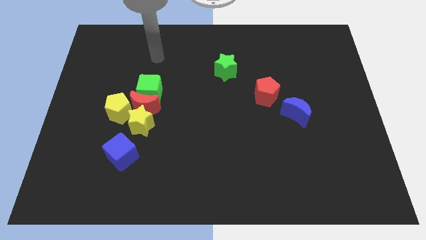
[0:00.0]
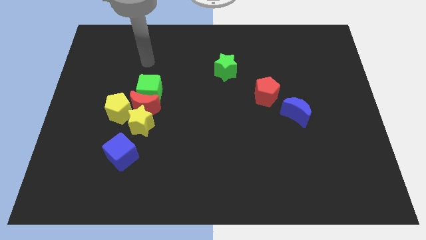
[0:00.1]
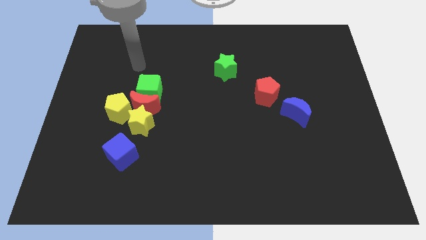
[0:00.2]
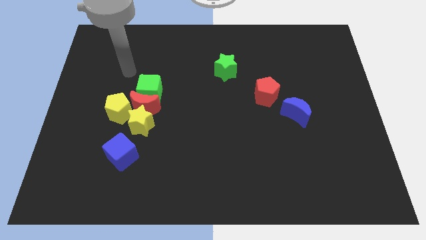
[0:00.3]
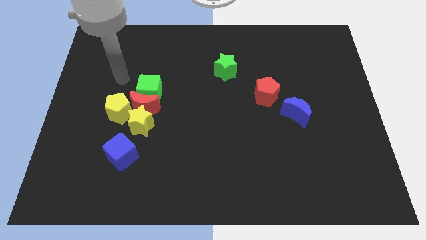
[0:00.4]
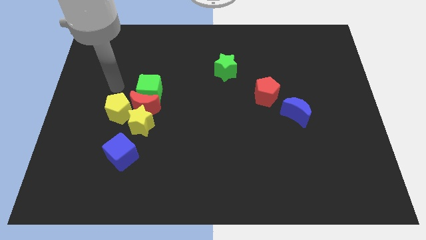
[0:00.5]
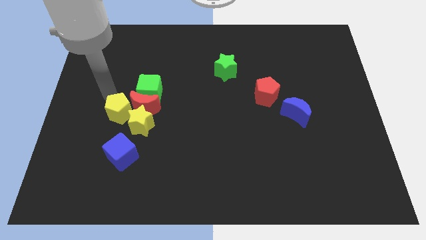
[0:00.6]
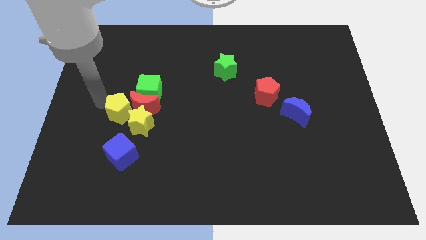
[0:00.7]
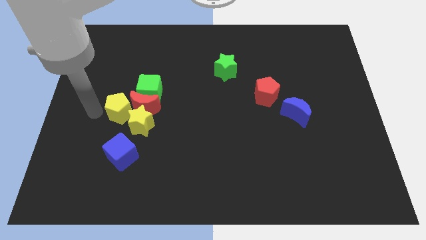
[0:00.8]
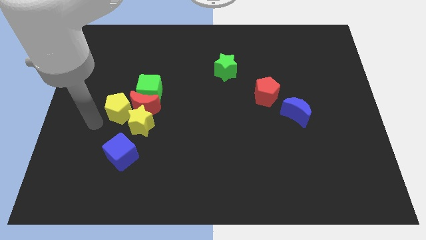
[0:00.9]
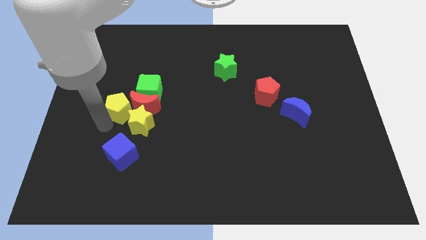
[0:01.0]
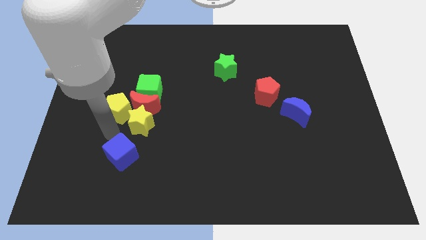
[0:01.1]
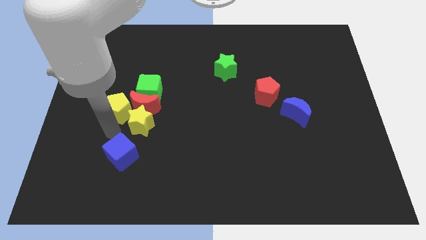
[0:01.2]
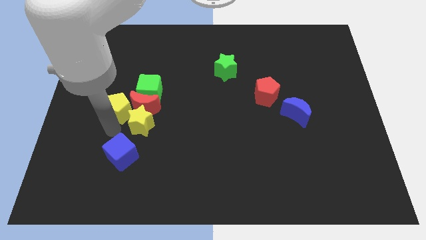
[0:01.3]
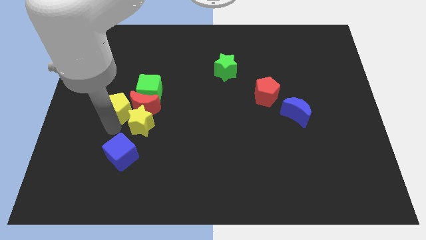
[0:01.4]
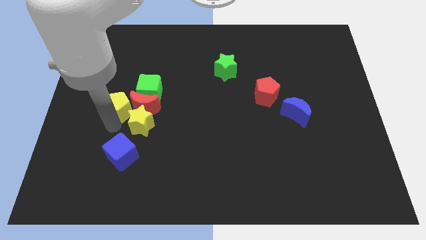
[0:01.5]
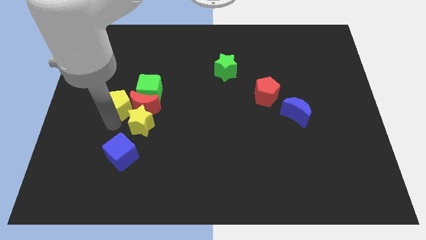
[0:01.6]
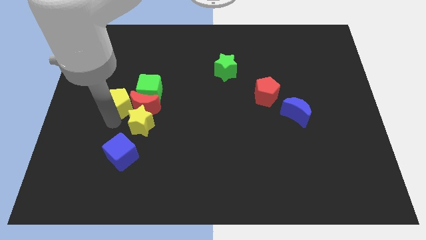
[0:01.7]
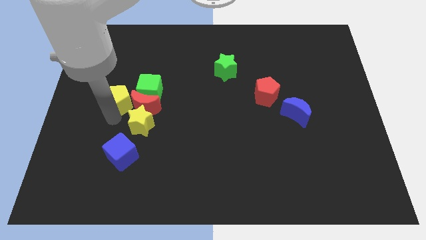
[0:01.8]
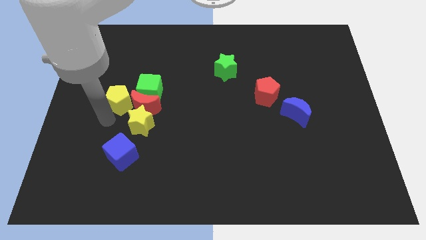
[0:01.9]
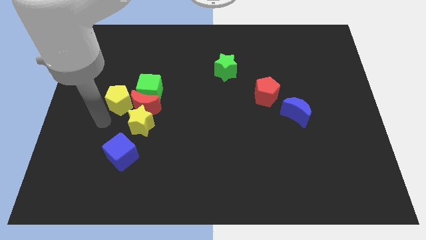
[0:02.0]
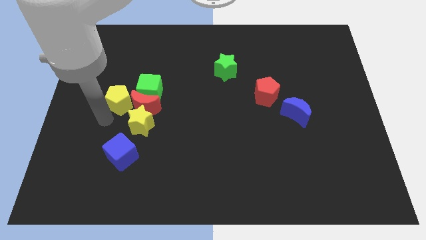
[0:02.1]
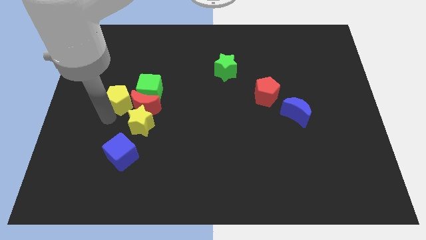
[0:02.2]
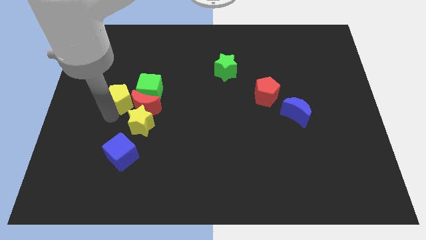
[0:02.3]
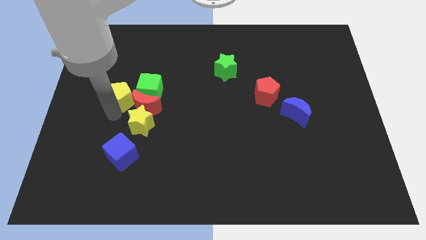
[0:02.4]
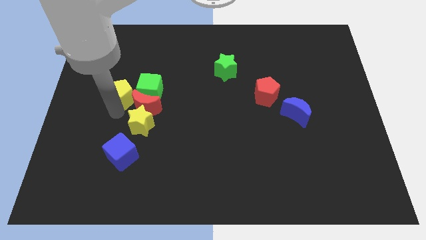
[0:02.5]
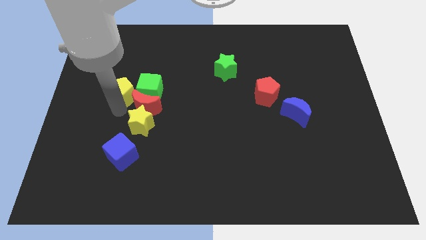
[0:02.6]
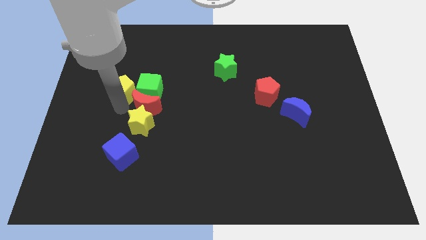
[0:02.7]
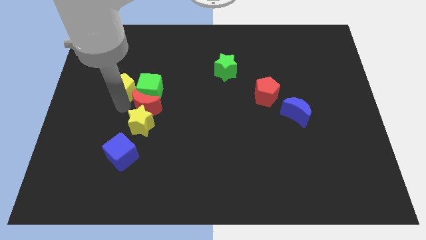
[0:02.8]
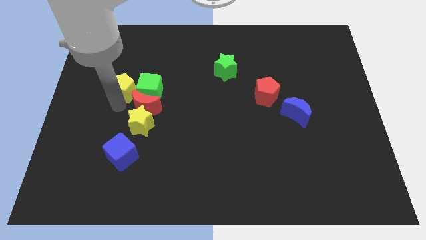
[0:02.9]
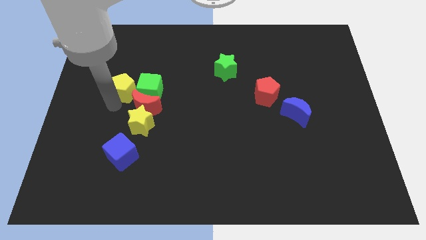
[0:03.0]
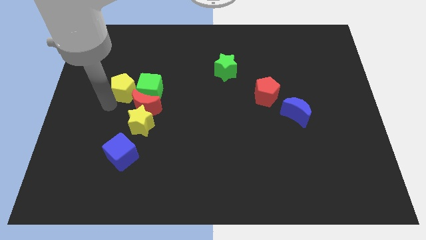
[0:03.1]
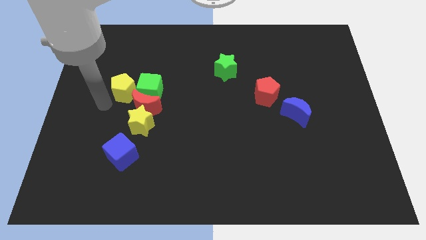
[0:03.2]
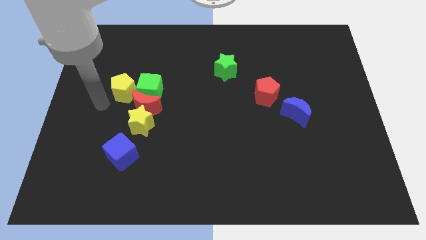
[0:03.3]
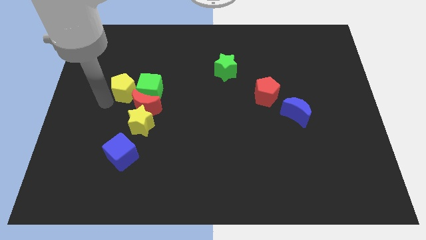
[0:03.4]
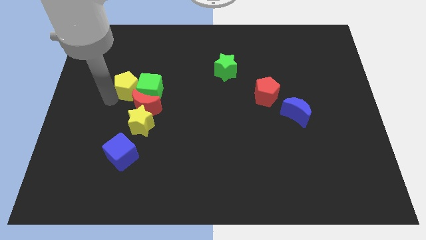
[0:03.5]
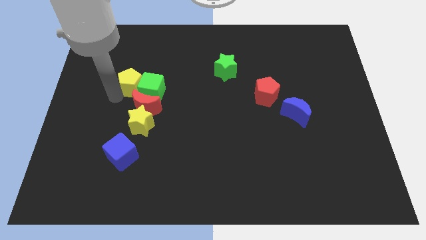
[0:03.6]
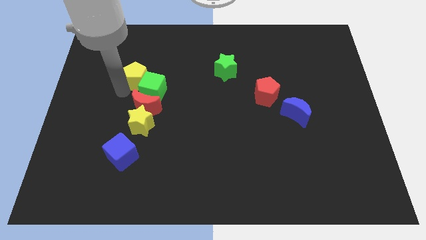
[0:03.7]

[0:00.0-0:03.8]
push the yellow pentagon upwards and then to the right a little

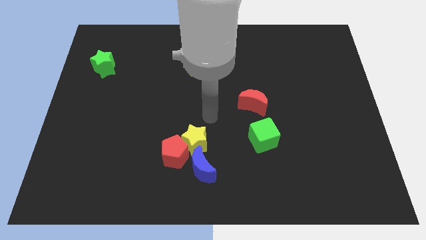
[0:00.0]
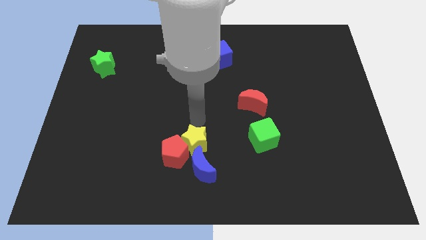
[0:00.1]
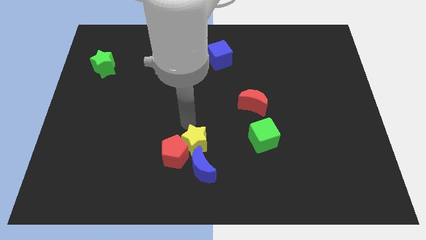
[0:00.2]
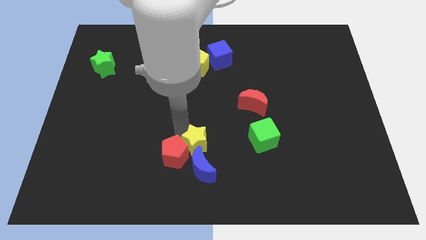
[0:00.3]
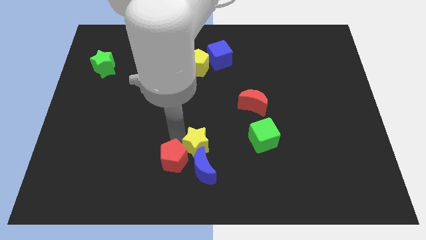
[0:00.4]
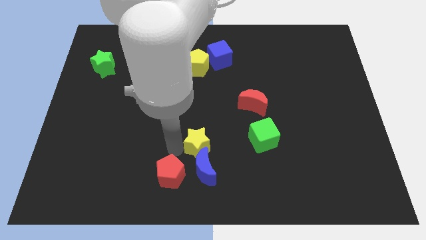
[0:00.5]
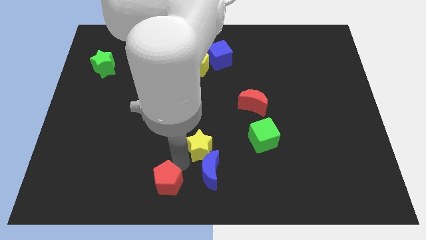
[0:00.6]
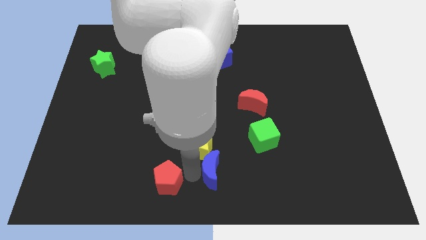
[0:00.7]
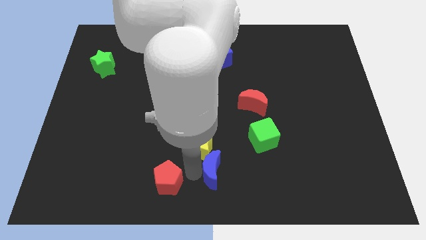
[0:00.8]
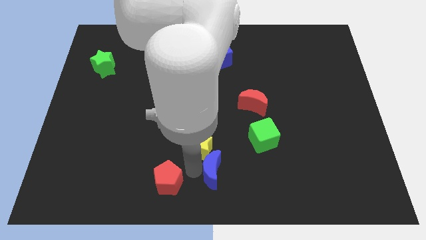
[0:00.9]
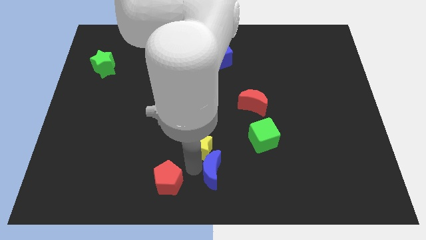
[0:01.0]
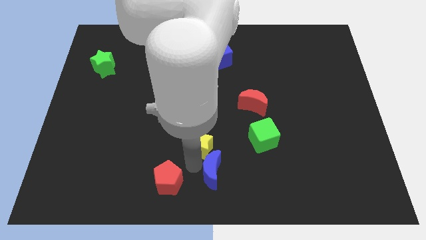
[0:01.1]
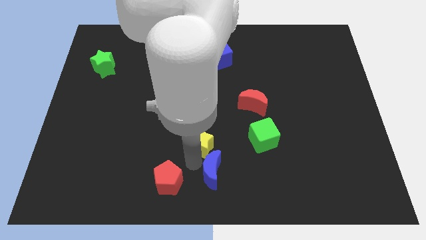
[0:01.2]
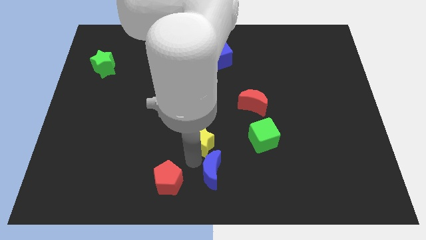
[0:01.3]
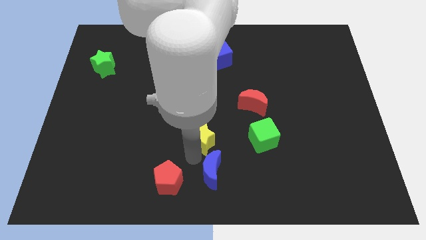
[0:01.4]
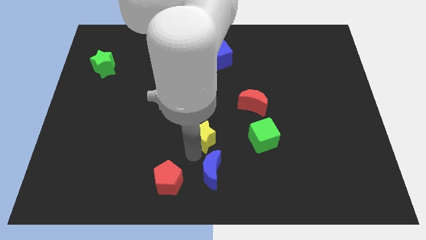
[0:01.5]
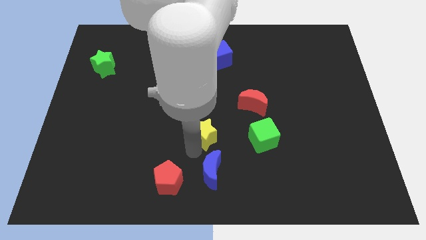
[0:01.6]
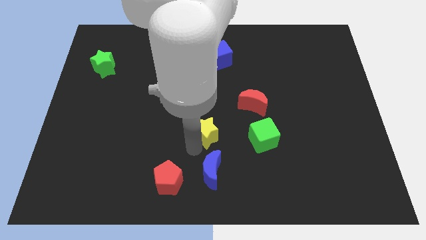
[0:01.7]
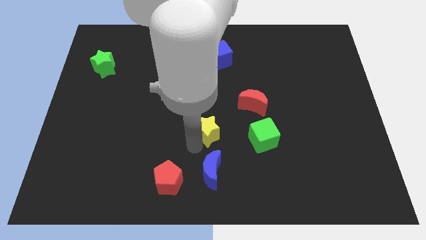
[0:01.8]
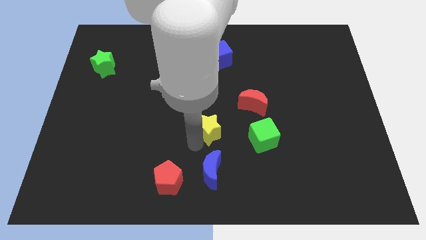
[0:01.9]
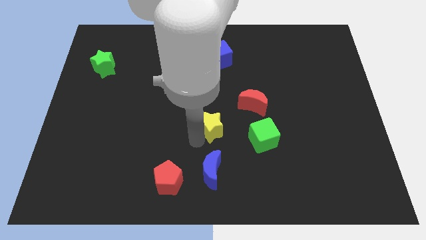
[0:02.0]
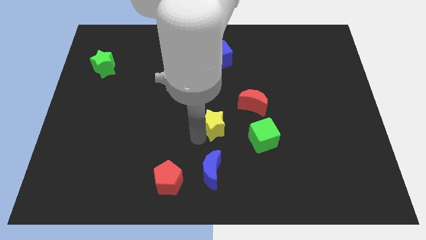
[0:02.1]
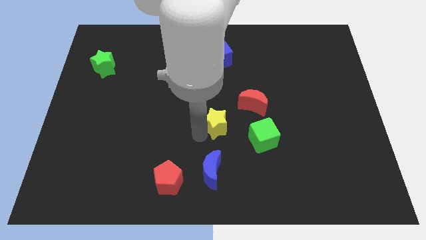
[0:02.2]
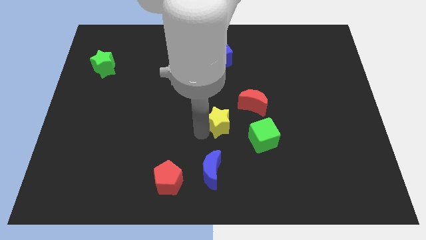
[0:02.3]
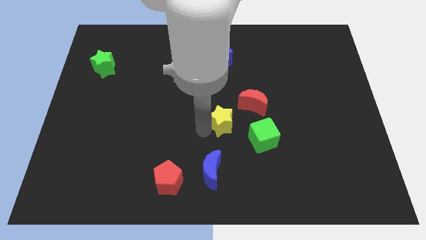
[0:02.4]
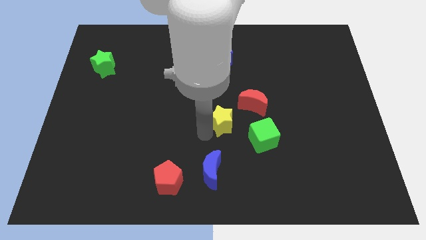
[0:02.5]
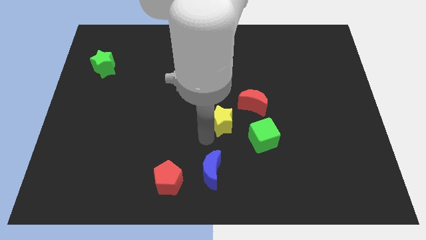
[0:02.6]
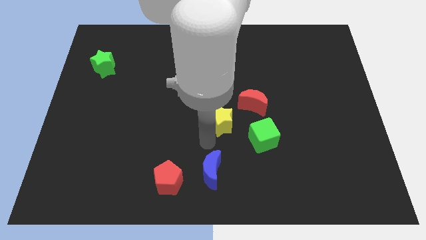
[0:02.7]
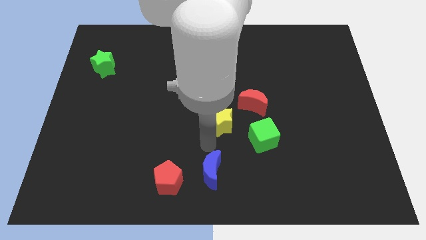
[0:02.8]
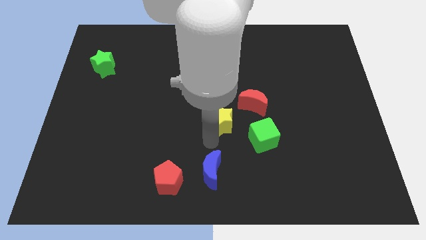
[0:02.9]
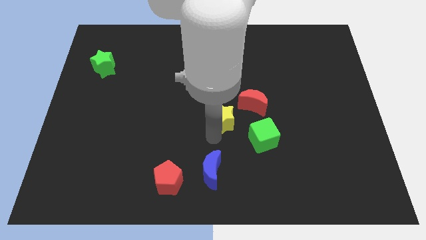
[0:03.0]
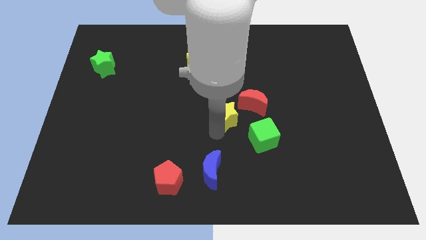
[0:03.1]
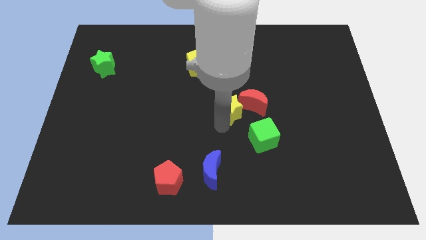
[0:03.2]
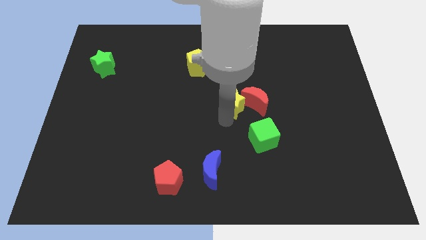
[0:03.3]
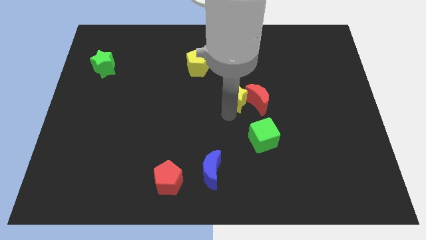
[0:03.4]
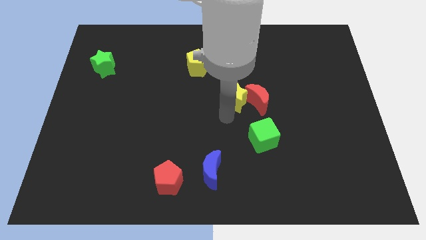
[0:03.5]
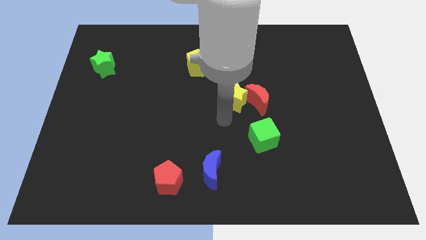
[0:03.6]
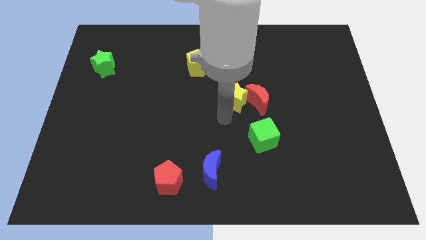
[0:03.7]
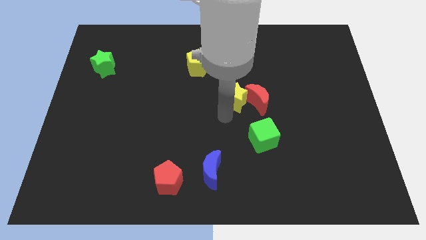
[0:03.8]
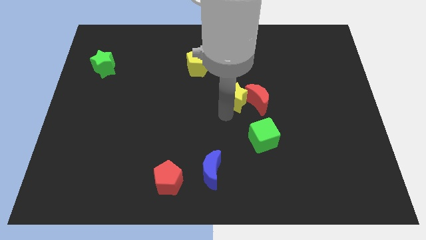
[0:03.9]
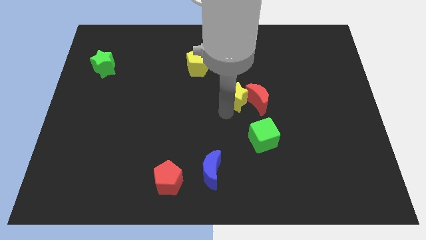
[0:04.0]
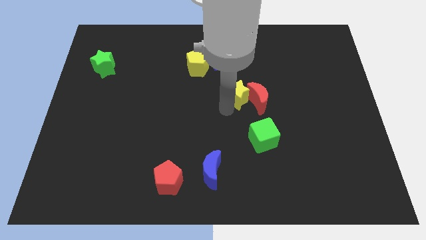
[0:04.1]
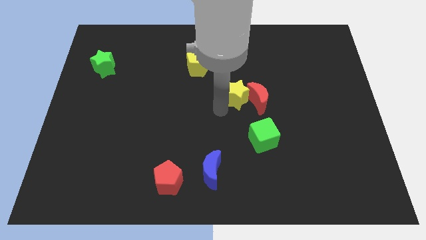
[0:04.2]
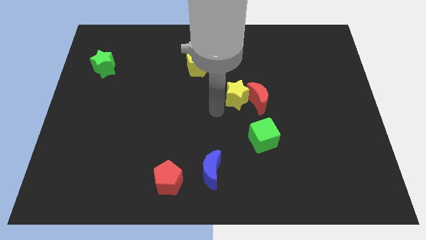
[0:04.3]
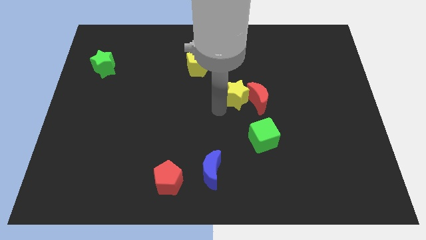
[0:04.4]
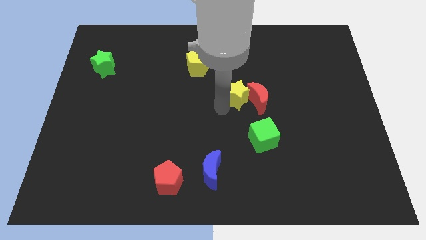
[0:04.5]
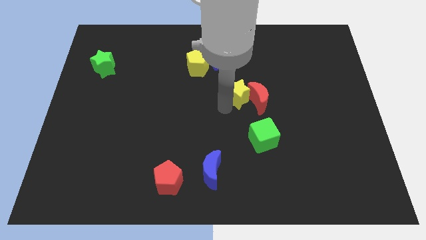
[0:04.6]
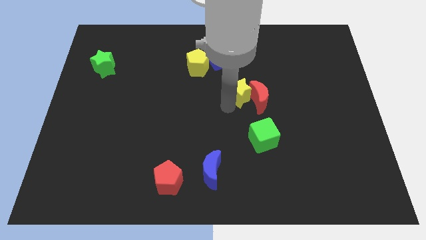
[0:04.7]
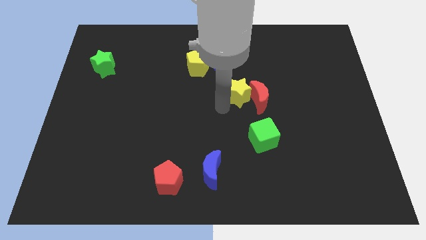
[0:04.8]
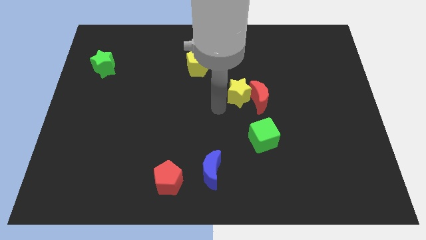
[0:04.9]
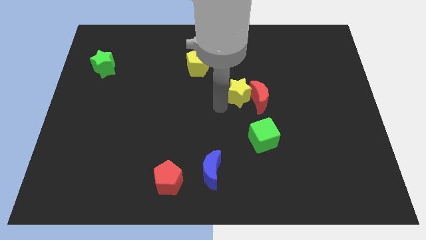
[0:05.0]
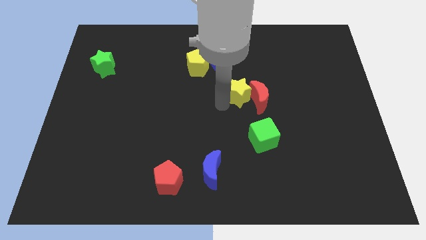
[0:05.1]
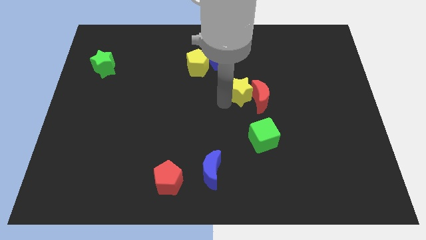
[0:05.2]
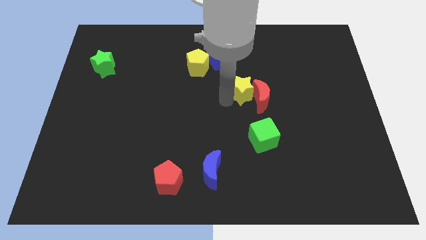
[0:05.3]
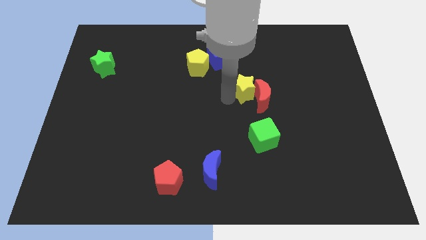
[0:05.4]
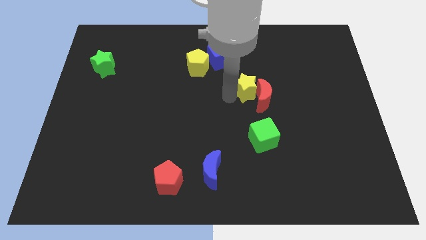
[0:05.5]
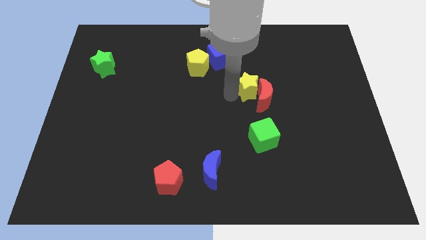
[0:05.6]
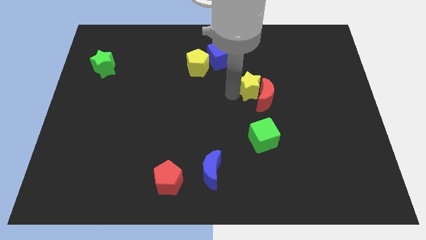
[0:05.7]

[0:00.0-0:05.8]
slide the yellow star up and right
